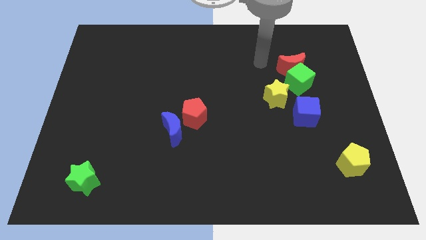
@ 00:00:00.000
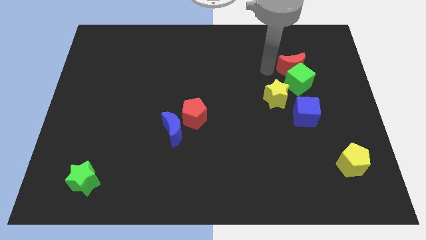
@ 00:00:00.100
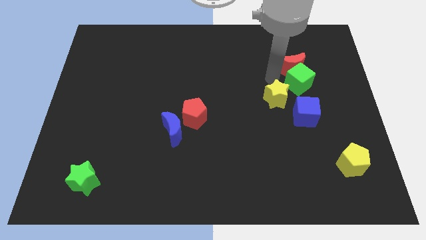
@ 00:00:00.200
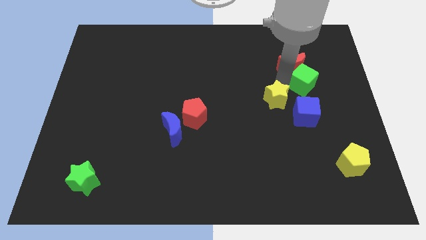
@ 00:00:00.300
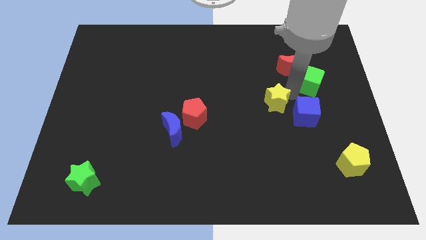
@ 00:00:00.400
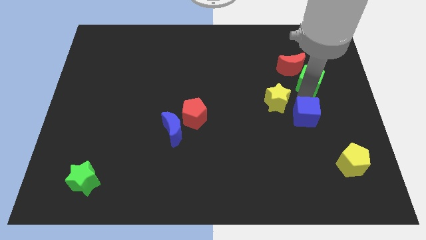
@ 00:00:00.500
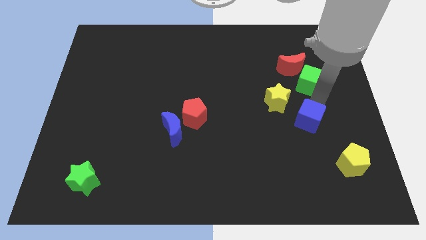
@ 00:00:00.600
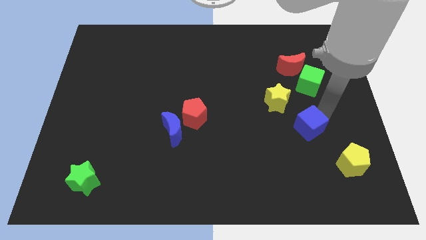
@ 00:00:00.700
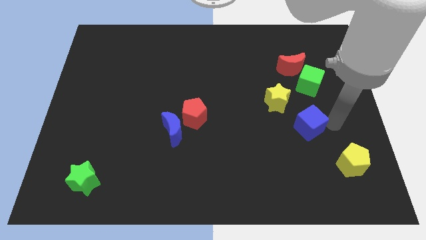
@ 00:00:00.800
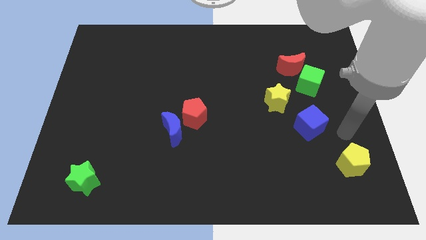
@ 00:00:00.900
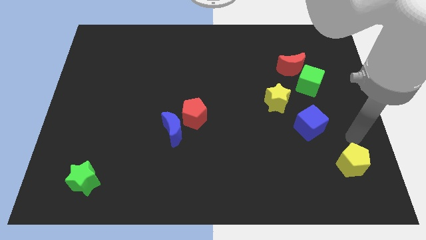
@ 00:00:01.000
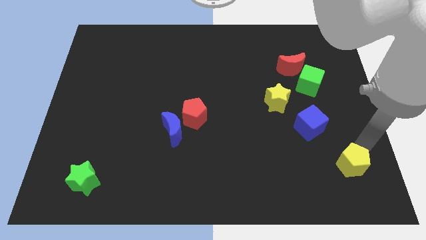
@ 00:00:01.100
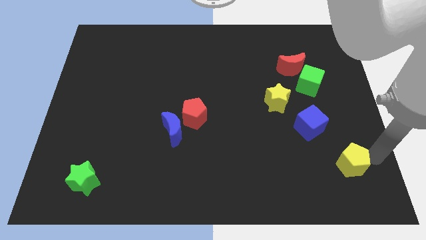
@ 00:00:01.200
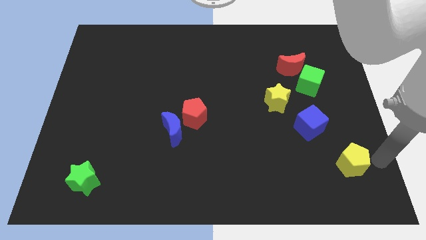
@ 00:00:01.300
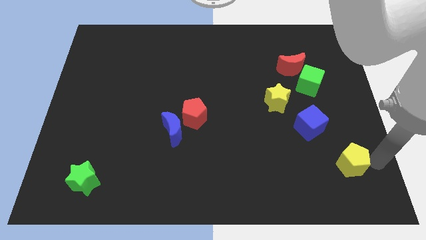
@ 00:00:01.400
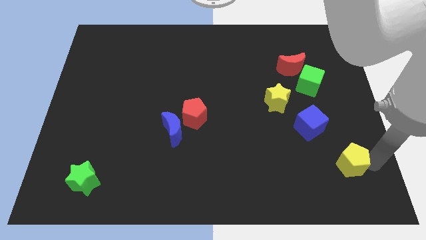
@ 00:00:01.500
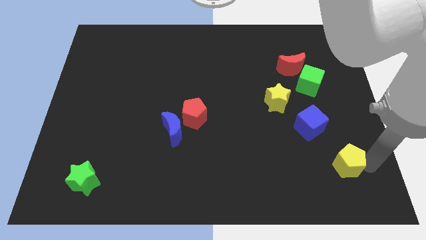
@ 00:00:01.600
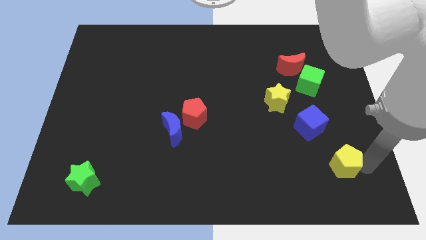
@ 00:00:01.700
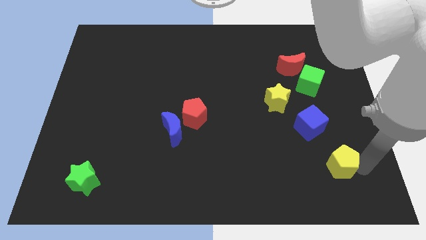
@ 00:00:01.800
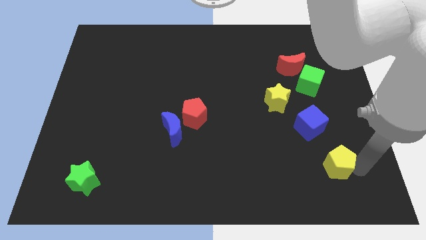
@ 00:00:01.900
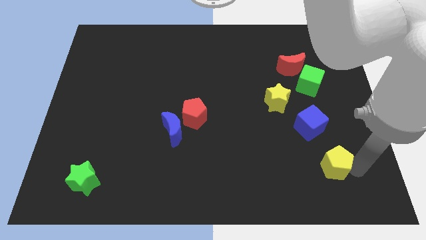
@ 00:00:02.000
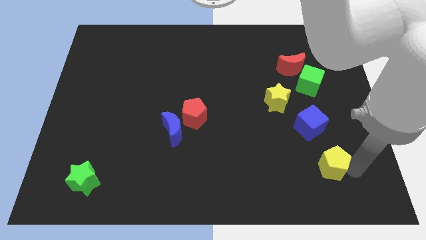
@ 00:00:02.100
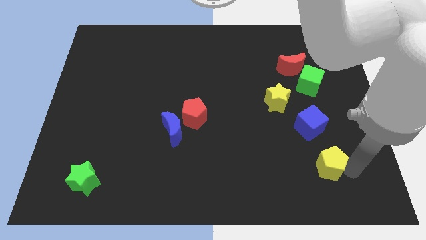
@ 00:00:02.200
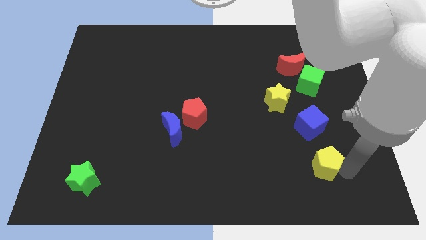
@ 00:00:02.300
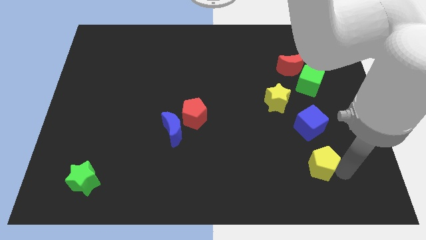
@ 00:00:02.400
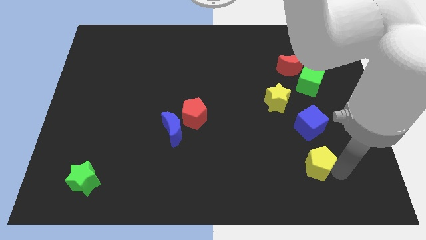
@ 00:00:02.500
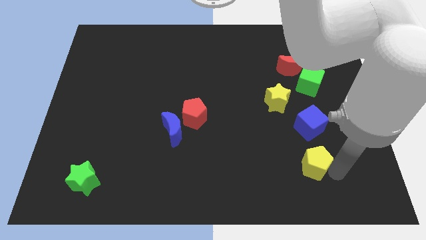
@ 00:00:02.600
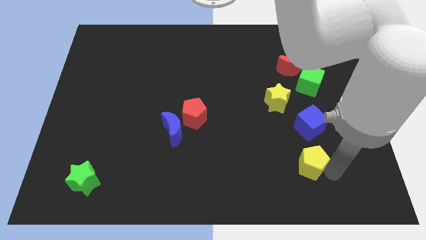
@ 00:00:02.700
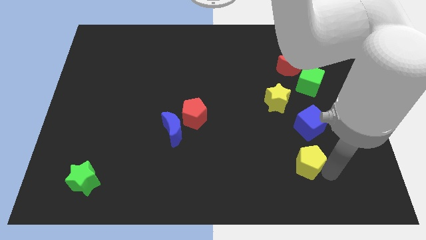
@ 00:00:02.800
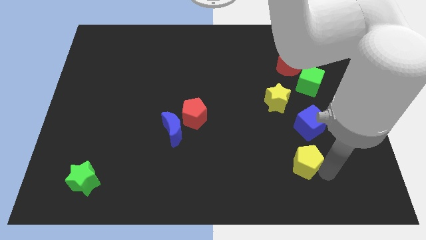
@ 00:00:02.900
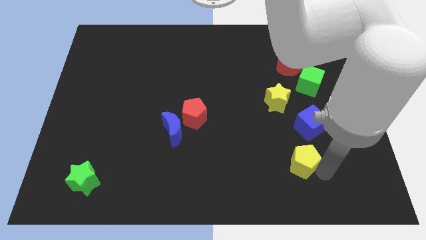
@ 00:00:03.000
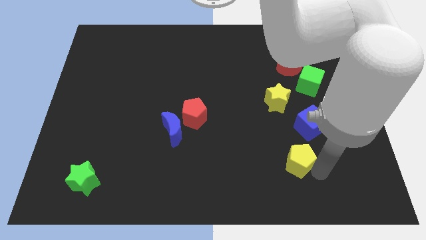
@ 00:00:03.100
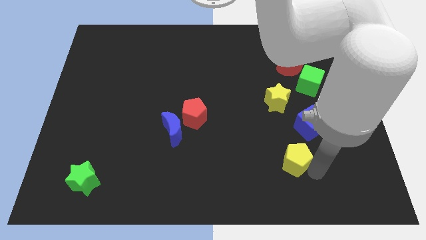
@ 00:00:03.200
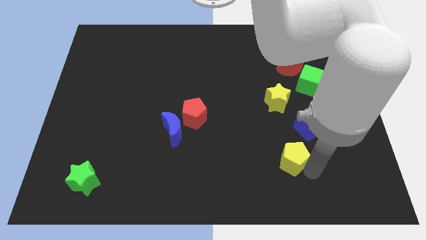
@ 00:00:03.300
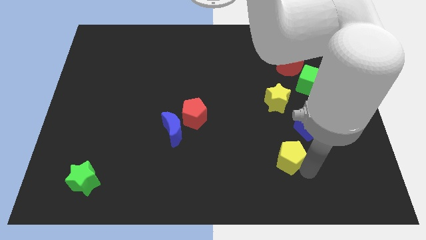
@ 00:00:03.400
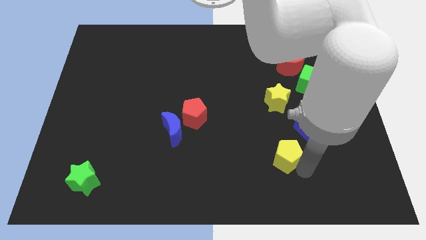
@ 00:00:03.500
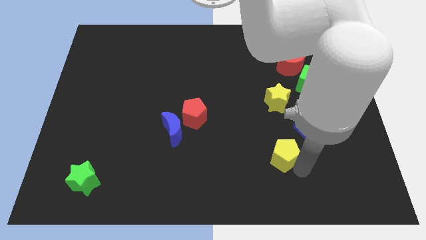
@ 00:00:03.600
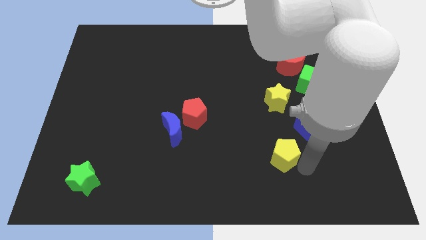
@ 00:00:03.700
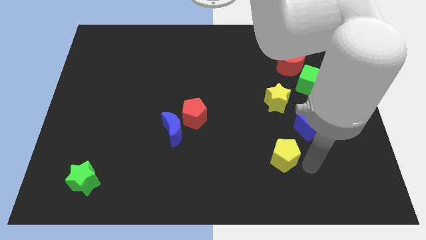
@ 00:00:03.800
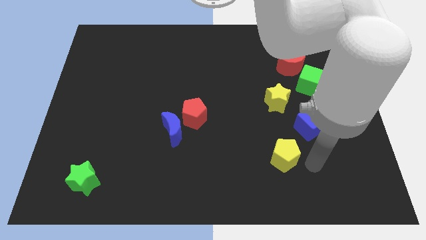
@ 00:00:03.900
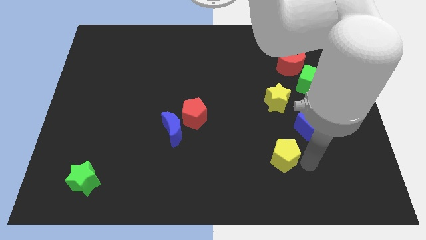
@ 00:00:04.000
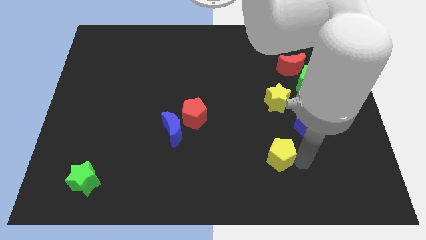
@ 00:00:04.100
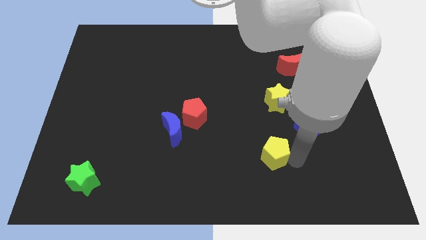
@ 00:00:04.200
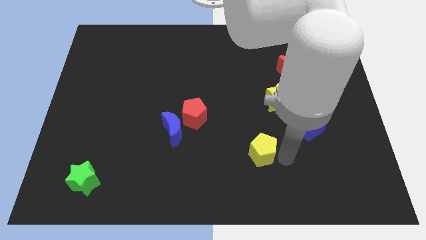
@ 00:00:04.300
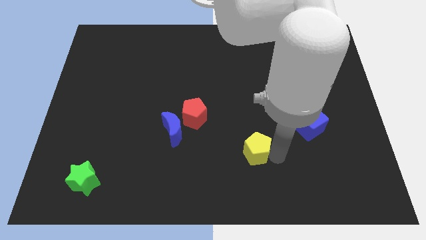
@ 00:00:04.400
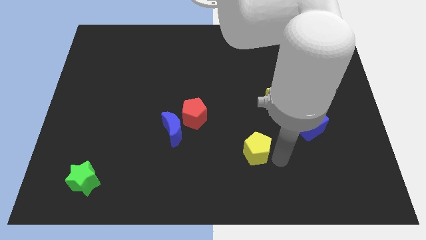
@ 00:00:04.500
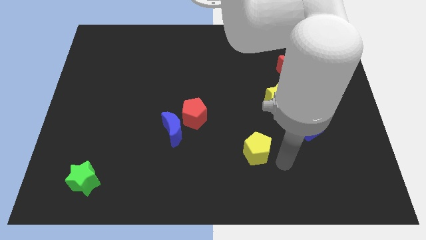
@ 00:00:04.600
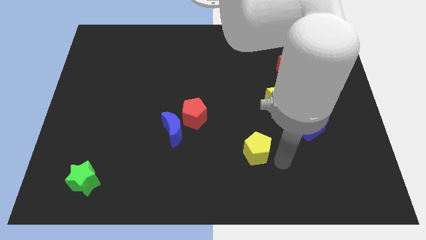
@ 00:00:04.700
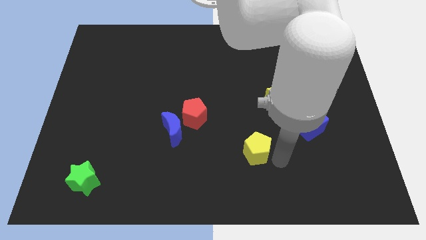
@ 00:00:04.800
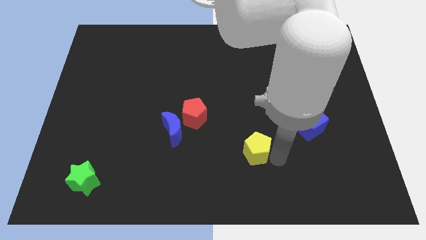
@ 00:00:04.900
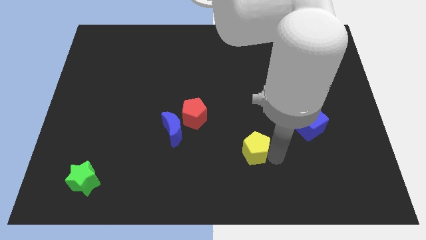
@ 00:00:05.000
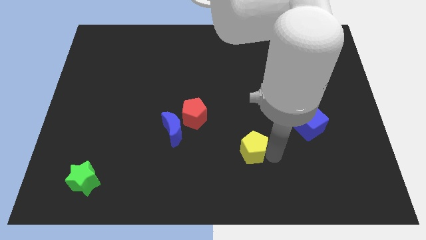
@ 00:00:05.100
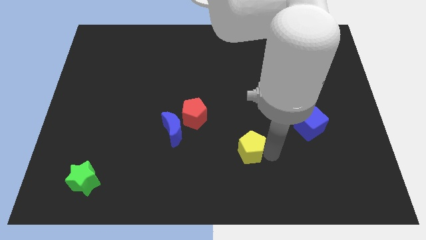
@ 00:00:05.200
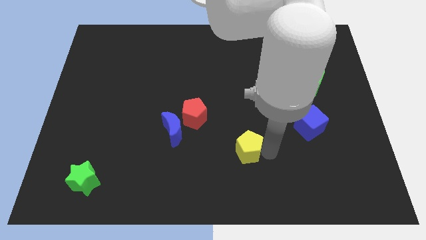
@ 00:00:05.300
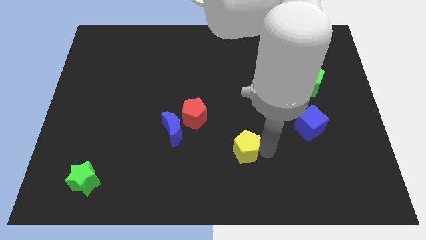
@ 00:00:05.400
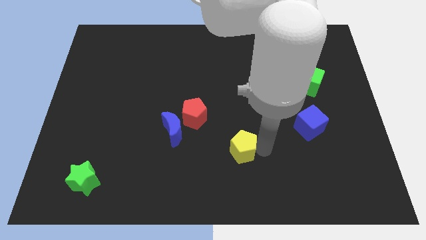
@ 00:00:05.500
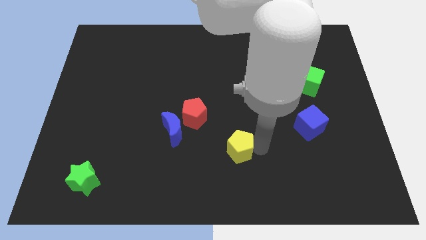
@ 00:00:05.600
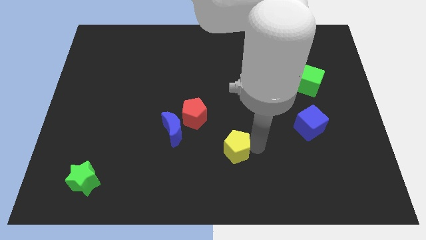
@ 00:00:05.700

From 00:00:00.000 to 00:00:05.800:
slide the yellow pentagon to the bottom right of the red pentagon

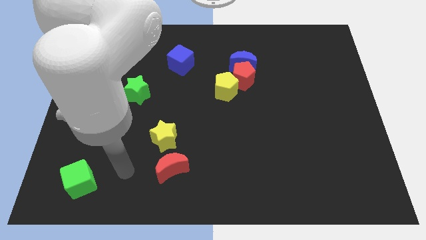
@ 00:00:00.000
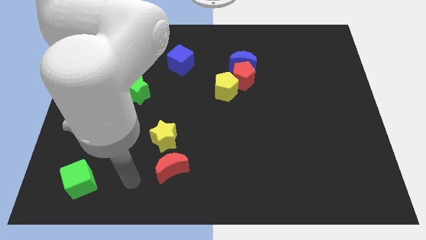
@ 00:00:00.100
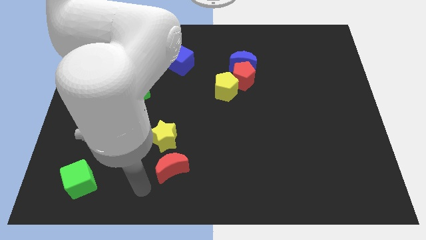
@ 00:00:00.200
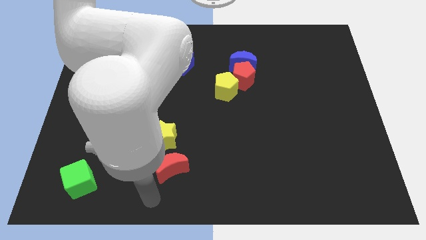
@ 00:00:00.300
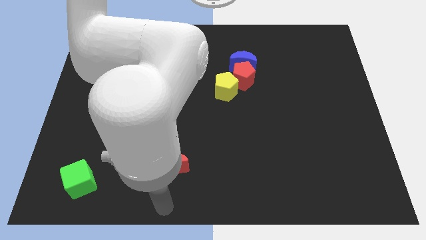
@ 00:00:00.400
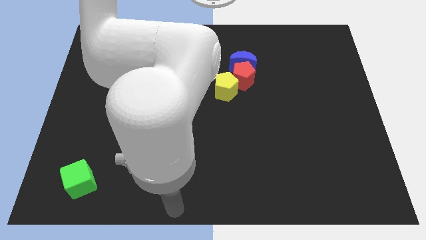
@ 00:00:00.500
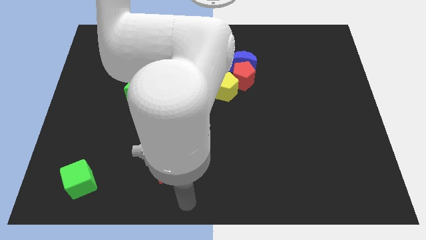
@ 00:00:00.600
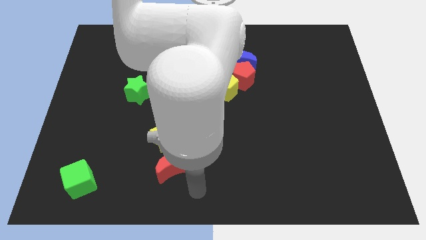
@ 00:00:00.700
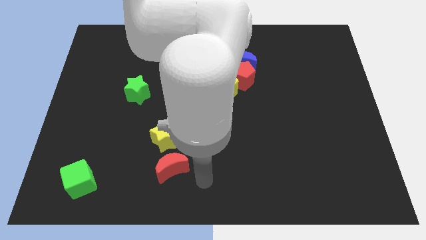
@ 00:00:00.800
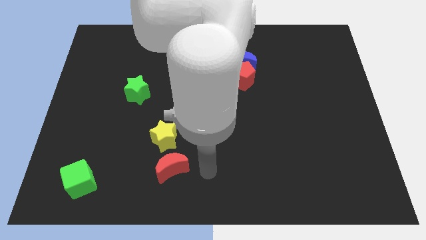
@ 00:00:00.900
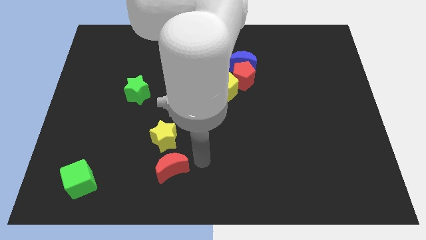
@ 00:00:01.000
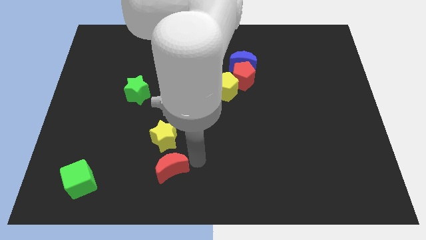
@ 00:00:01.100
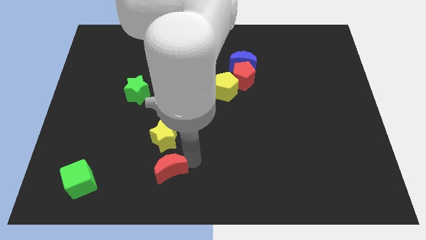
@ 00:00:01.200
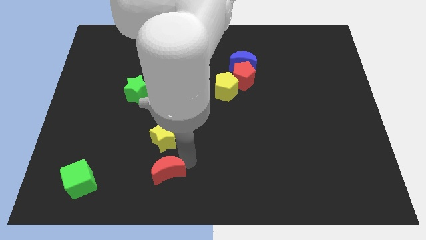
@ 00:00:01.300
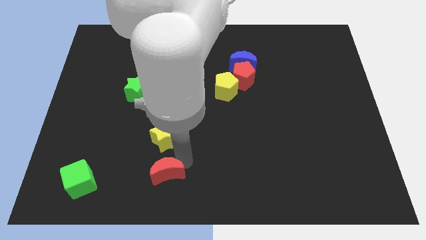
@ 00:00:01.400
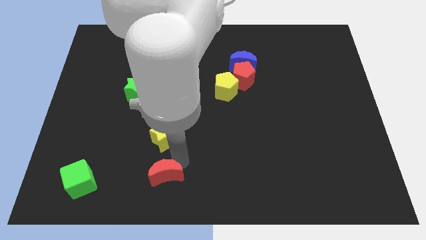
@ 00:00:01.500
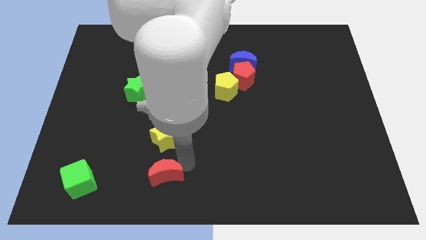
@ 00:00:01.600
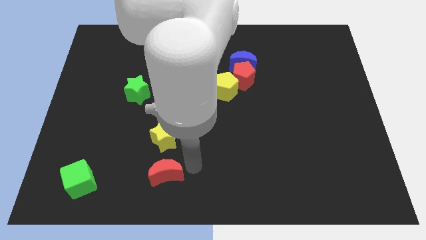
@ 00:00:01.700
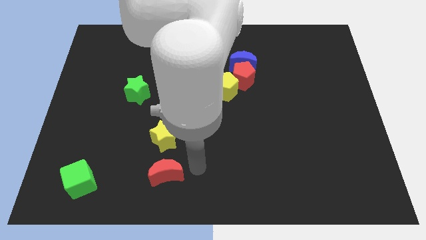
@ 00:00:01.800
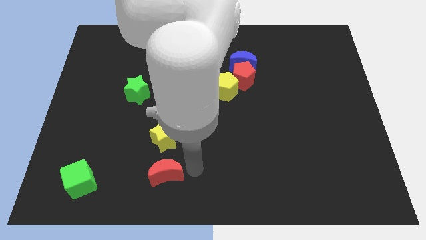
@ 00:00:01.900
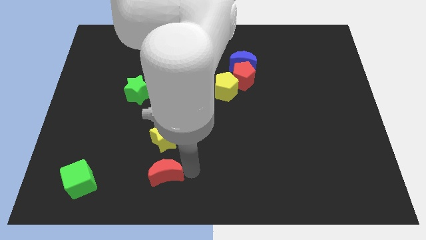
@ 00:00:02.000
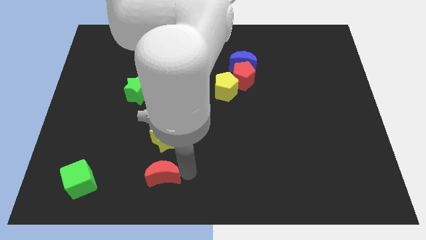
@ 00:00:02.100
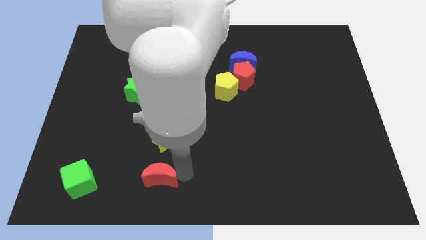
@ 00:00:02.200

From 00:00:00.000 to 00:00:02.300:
move the red moon just right of the green cube
